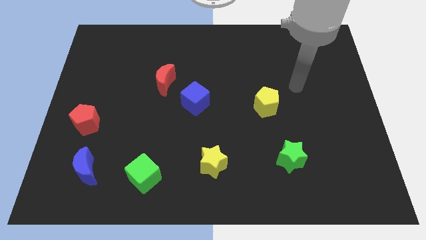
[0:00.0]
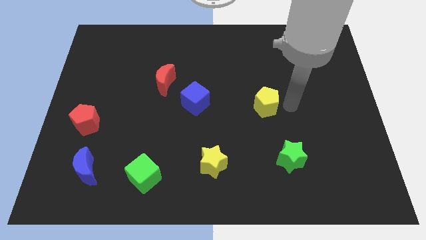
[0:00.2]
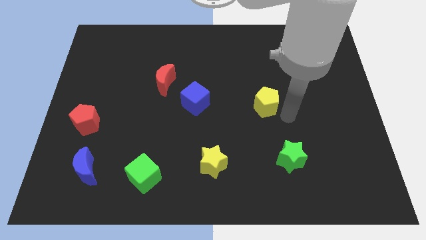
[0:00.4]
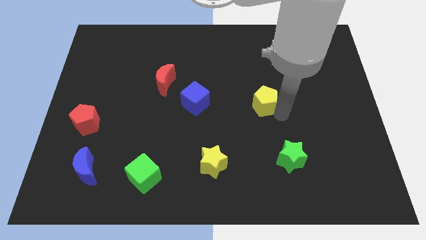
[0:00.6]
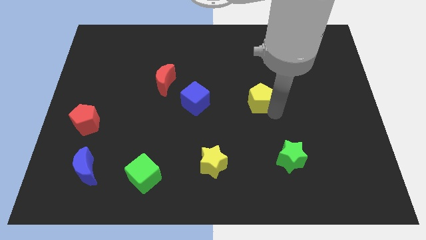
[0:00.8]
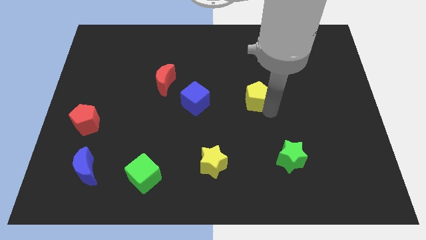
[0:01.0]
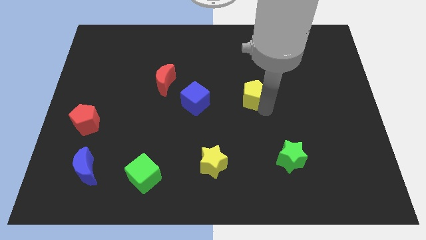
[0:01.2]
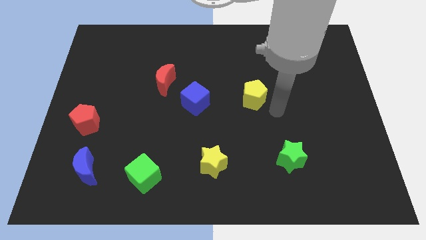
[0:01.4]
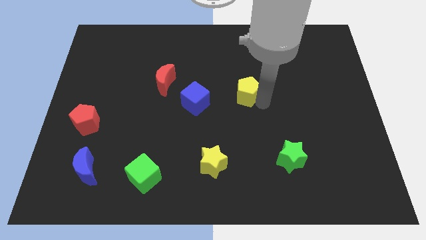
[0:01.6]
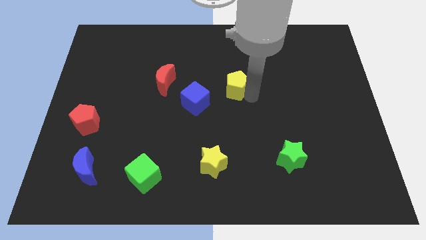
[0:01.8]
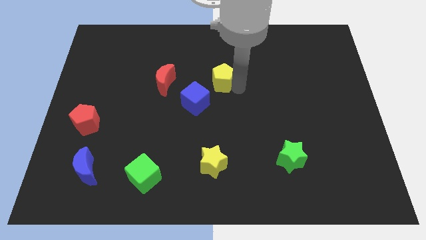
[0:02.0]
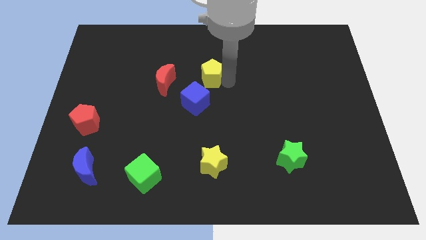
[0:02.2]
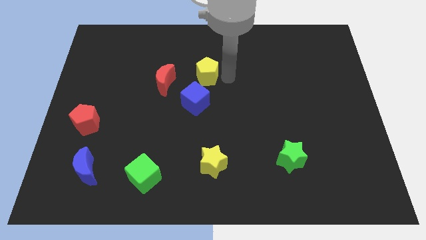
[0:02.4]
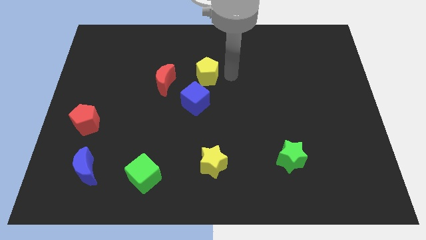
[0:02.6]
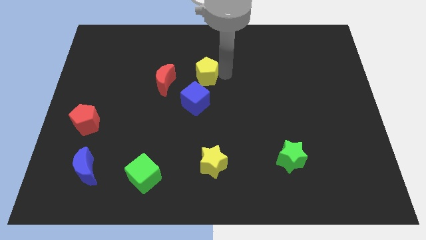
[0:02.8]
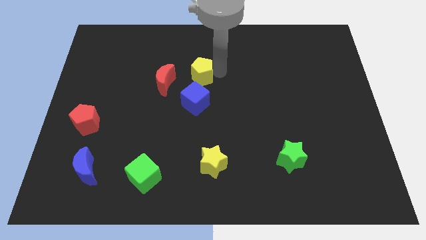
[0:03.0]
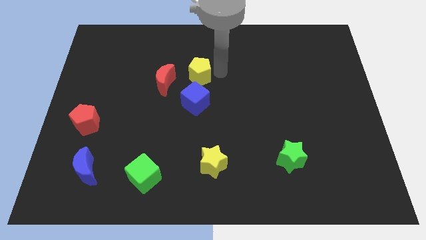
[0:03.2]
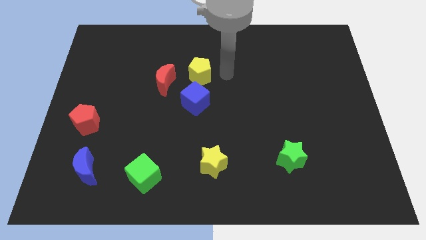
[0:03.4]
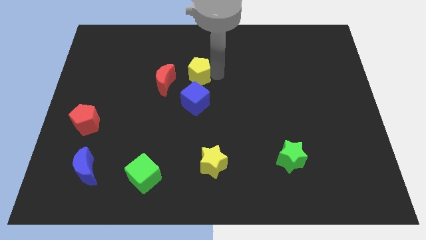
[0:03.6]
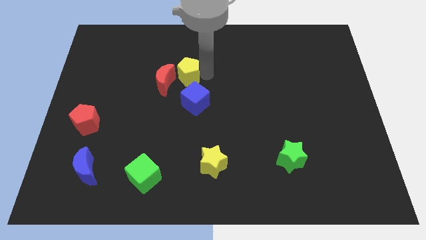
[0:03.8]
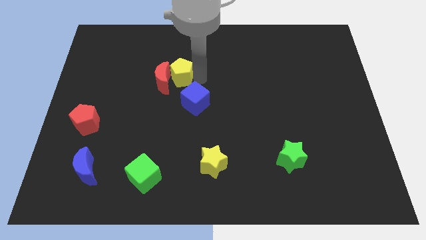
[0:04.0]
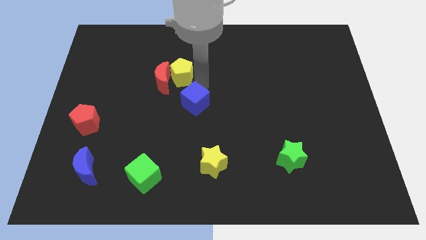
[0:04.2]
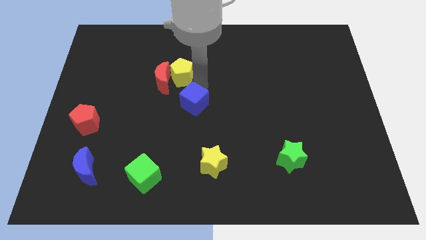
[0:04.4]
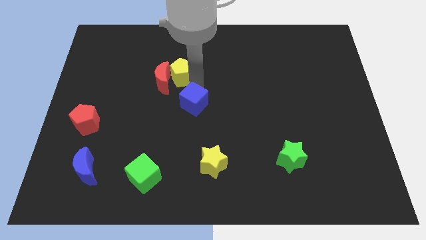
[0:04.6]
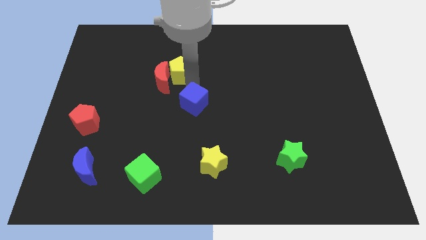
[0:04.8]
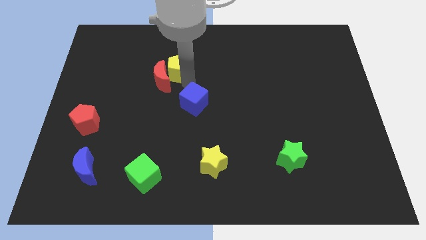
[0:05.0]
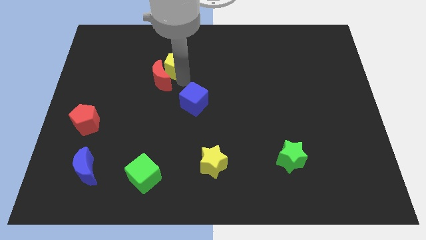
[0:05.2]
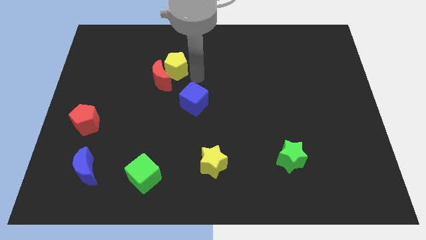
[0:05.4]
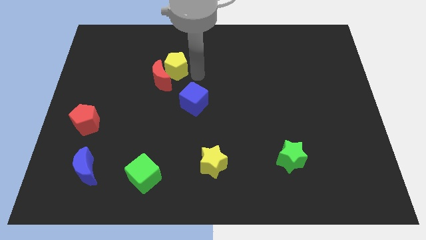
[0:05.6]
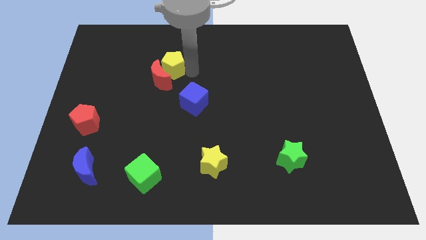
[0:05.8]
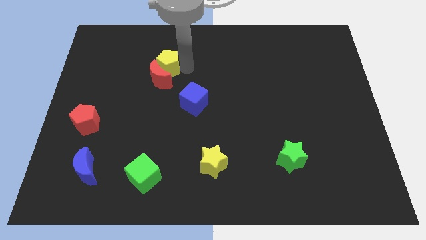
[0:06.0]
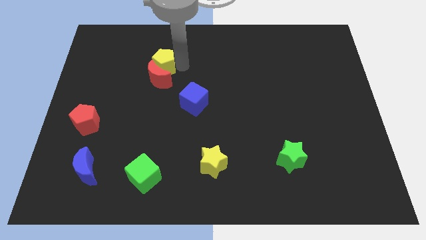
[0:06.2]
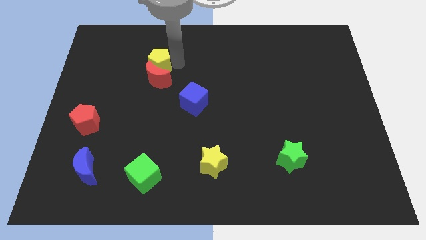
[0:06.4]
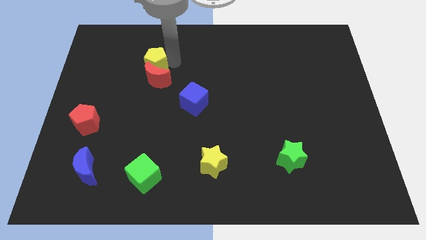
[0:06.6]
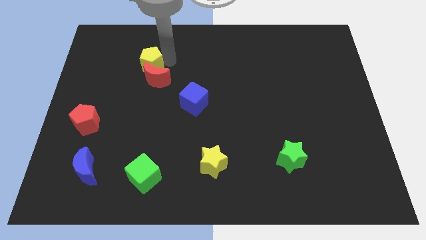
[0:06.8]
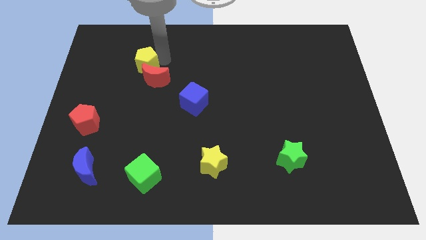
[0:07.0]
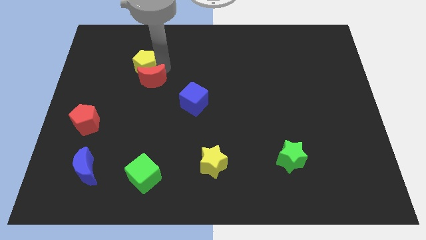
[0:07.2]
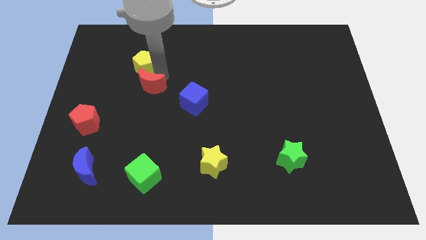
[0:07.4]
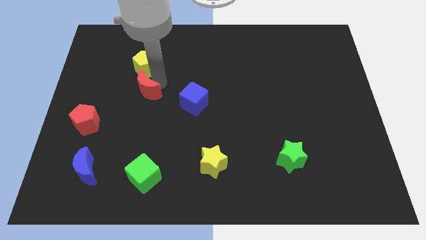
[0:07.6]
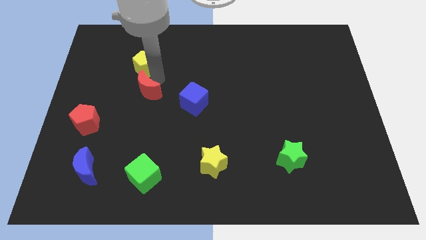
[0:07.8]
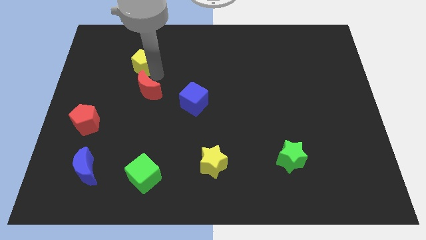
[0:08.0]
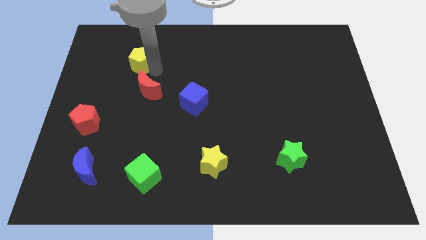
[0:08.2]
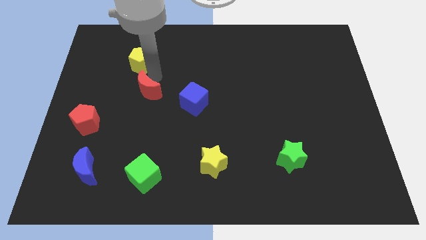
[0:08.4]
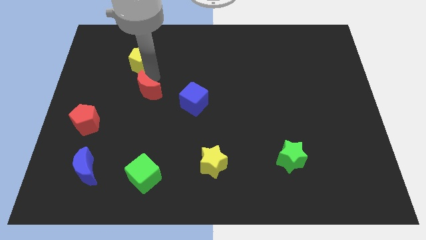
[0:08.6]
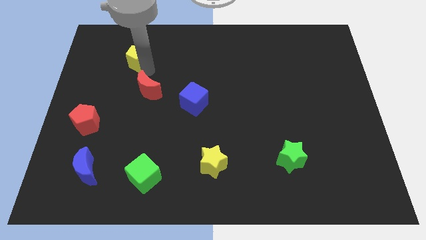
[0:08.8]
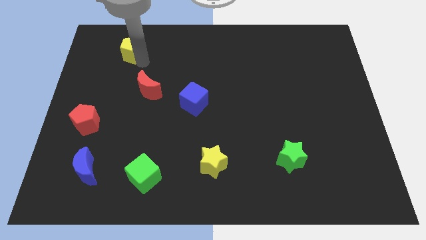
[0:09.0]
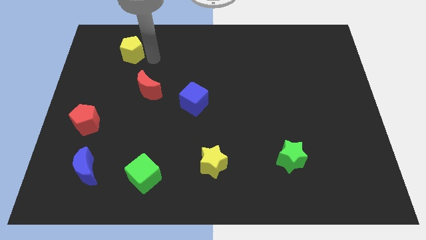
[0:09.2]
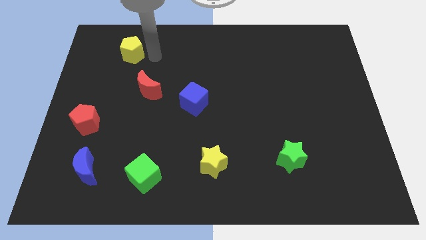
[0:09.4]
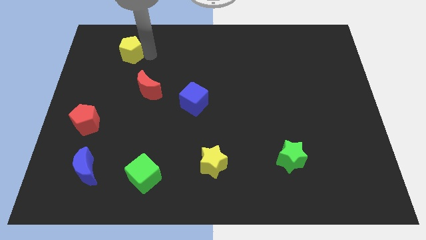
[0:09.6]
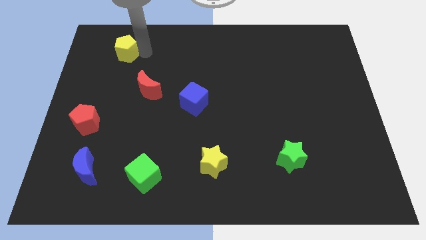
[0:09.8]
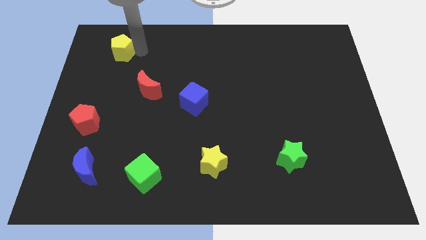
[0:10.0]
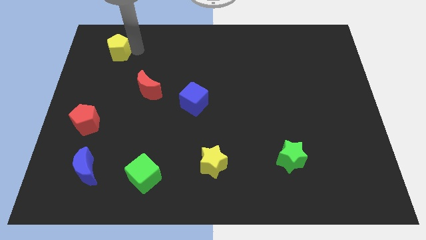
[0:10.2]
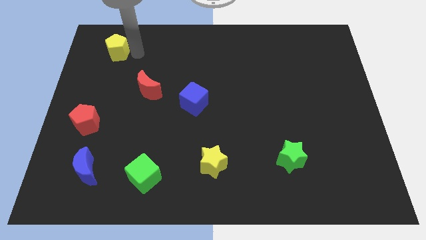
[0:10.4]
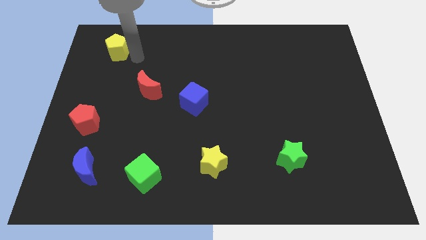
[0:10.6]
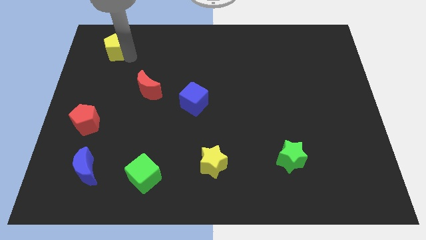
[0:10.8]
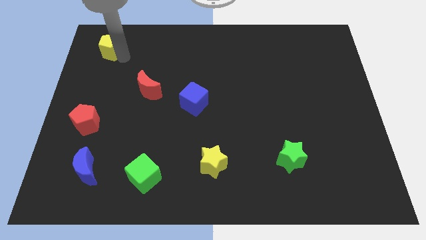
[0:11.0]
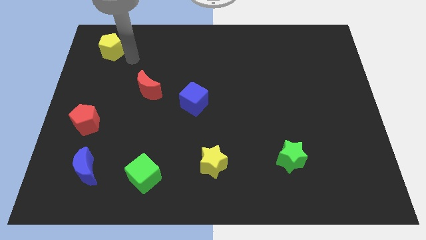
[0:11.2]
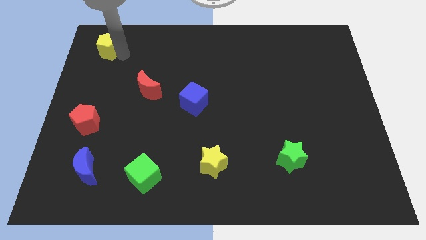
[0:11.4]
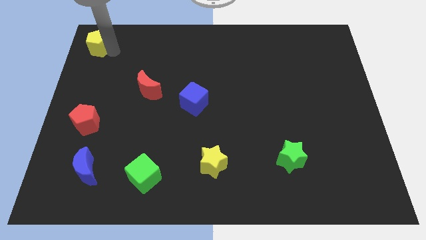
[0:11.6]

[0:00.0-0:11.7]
push the yellow pentagon to the top left of the board
